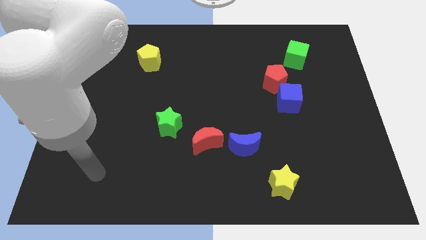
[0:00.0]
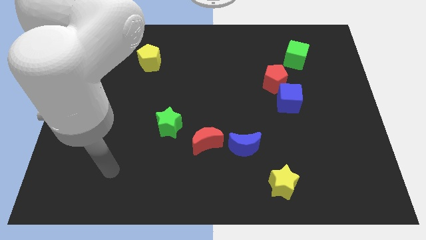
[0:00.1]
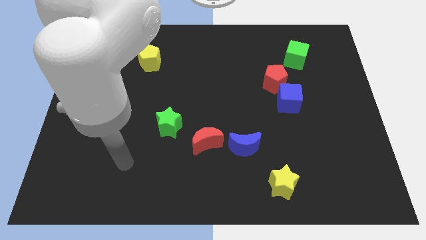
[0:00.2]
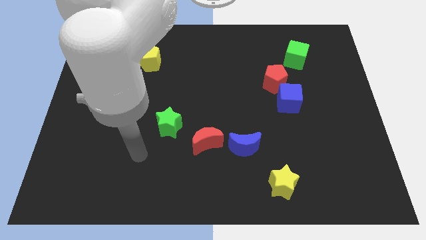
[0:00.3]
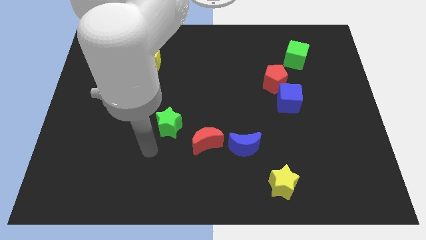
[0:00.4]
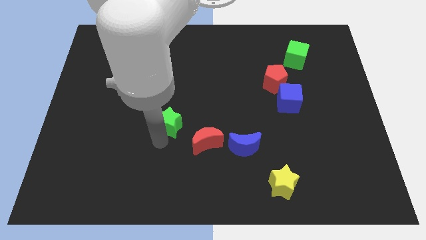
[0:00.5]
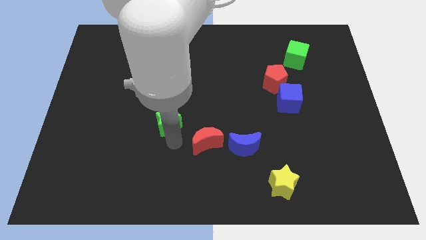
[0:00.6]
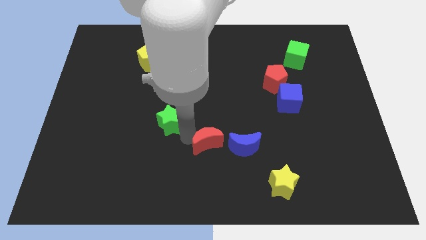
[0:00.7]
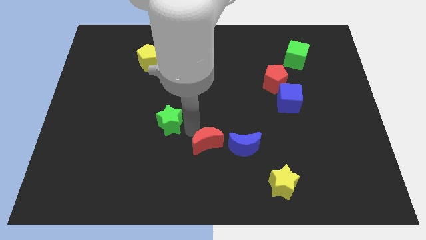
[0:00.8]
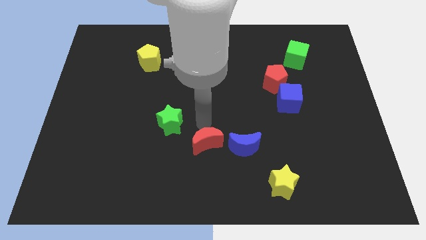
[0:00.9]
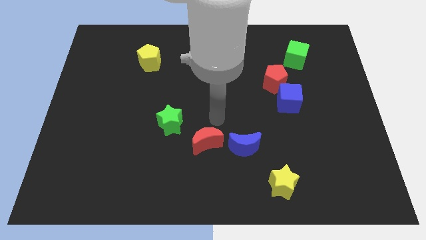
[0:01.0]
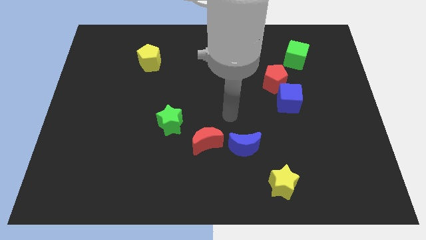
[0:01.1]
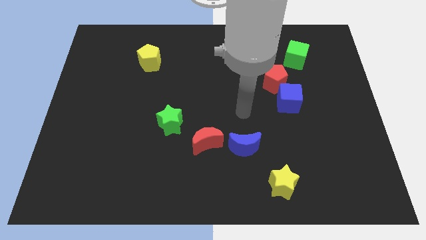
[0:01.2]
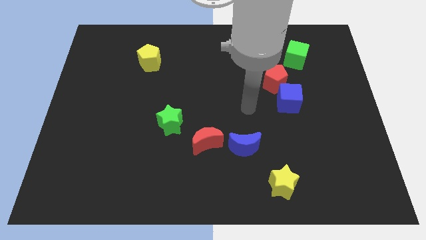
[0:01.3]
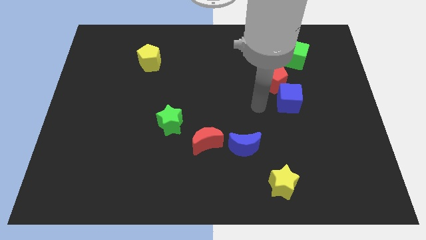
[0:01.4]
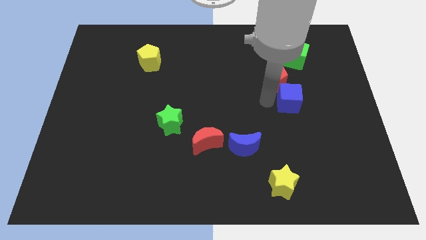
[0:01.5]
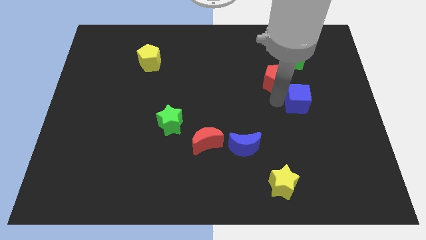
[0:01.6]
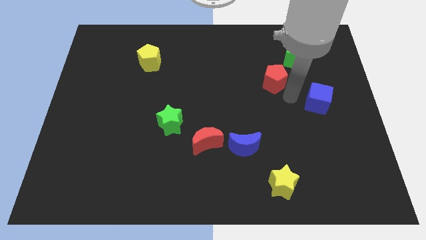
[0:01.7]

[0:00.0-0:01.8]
separate the red pentagon from the blue cube

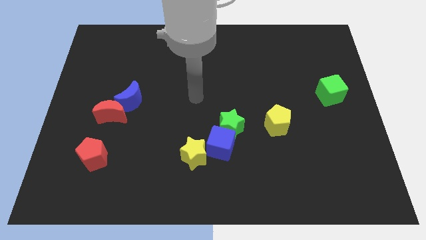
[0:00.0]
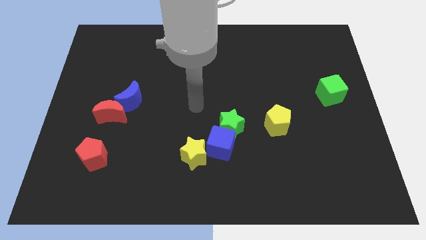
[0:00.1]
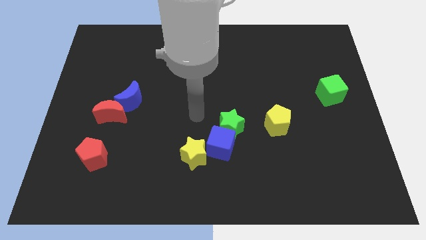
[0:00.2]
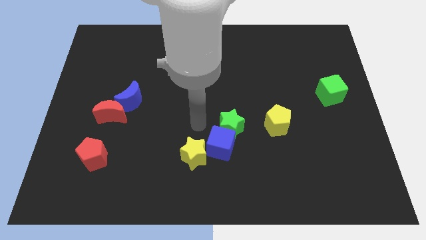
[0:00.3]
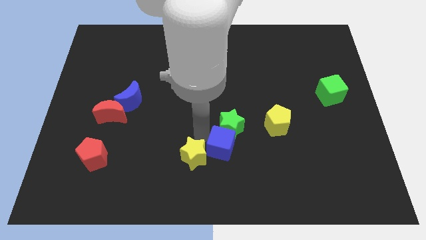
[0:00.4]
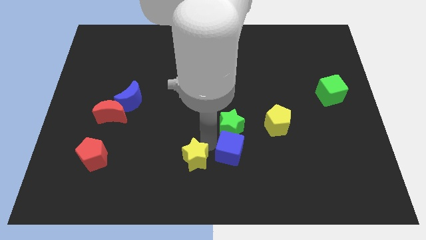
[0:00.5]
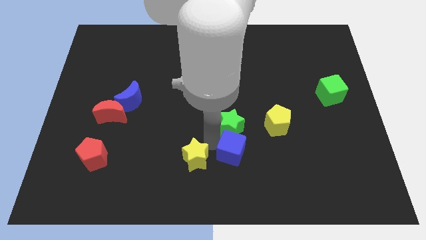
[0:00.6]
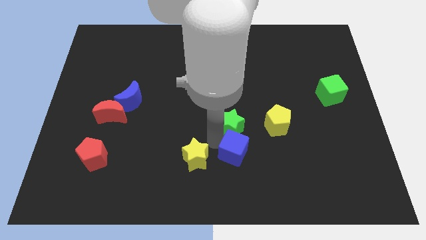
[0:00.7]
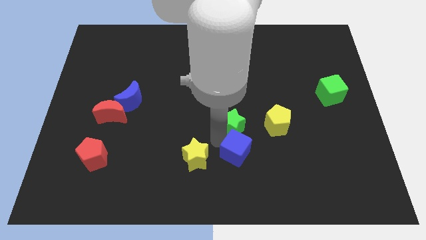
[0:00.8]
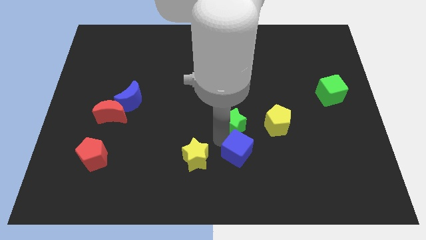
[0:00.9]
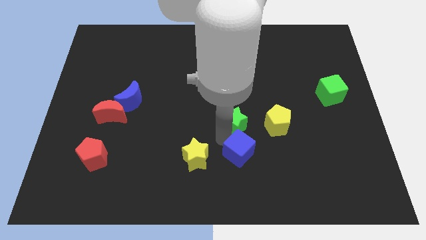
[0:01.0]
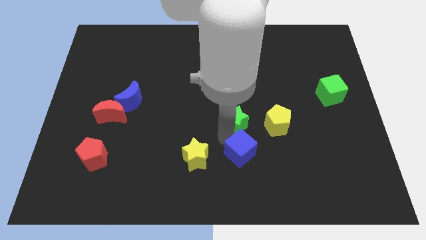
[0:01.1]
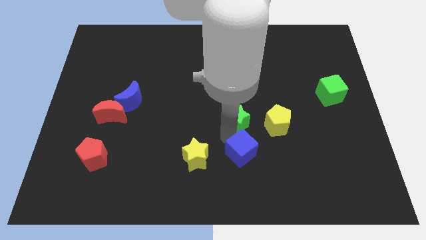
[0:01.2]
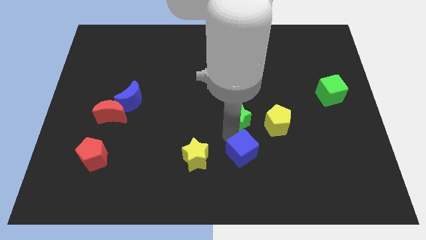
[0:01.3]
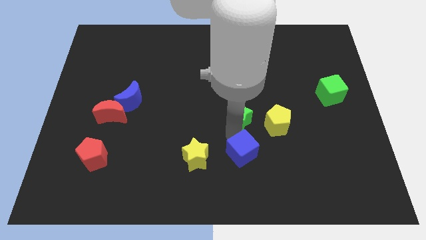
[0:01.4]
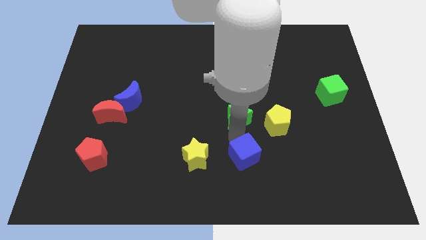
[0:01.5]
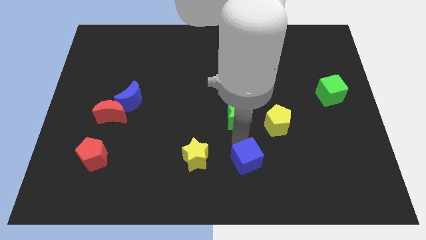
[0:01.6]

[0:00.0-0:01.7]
separate the green star from the blue cube

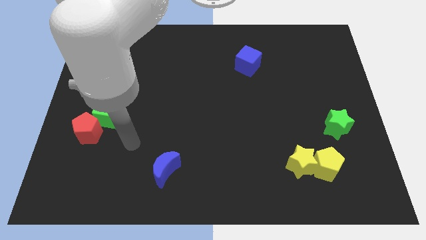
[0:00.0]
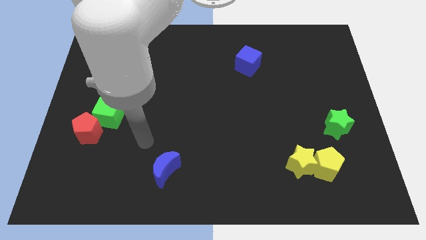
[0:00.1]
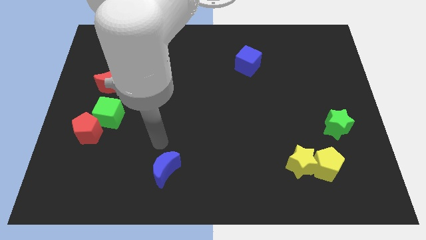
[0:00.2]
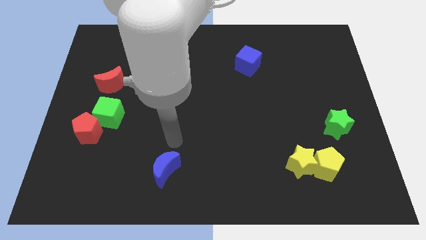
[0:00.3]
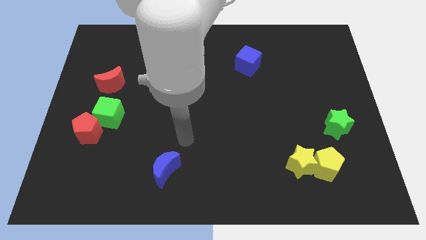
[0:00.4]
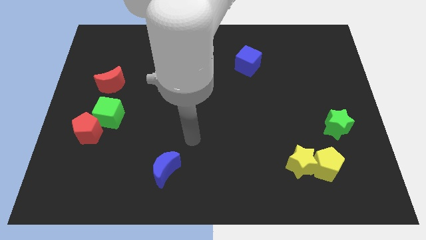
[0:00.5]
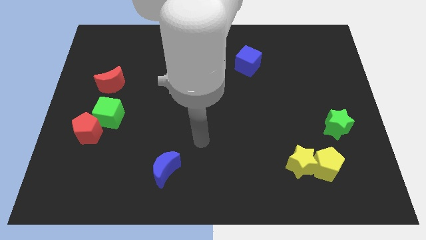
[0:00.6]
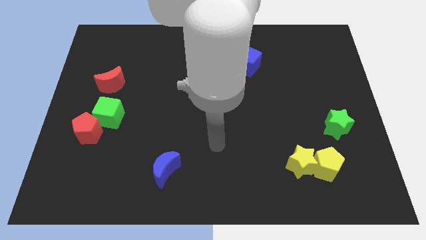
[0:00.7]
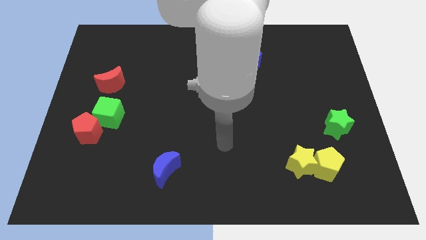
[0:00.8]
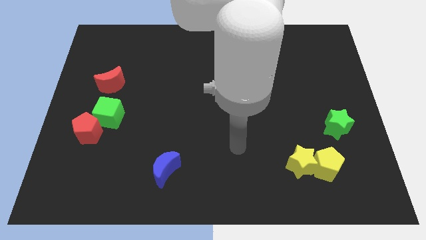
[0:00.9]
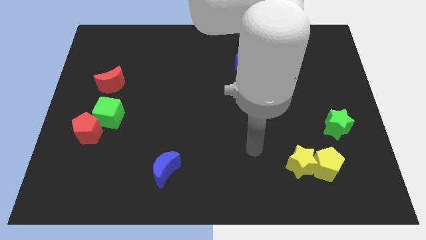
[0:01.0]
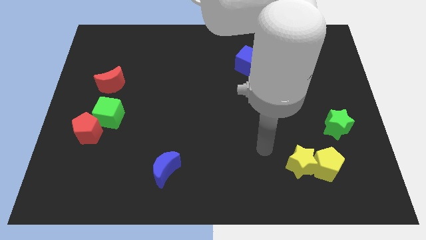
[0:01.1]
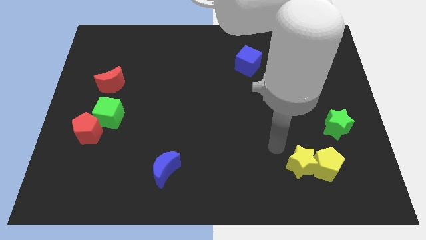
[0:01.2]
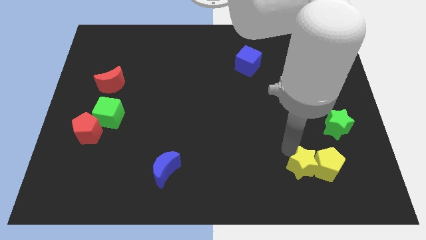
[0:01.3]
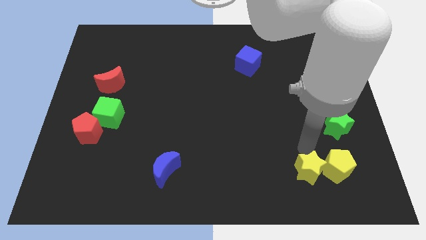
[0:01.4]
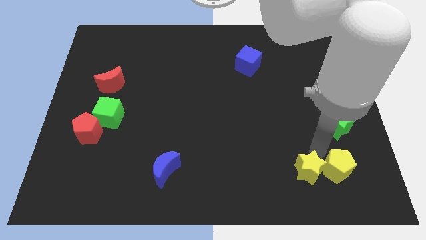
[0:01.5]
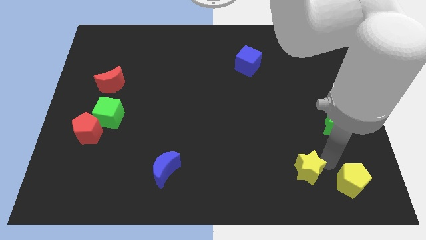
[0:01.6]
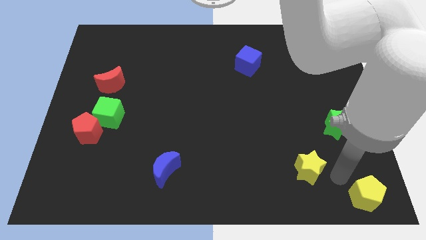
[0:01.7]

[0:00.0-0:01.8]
pull the yellow star apart from the yellow pentagon

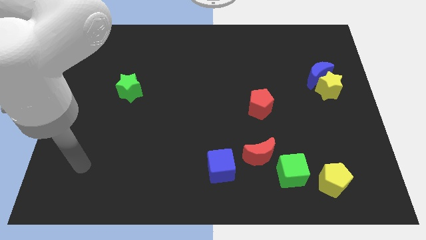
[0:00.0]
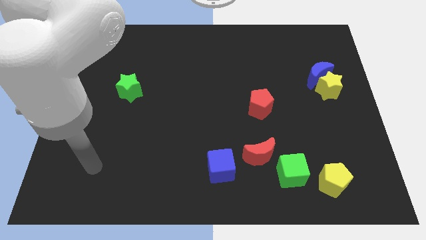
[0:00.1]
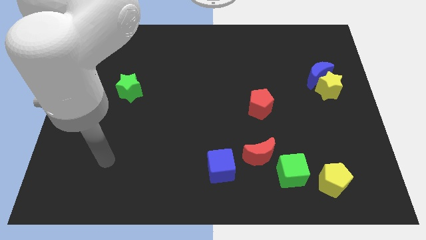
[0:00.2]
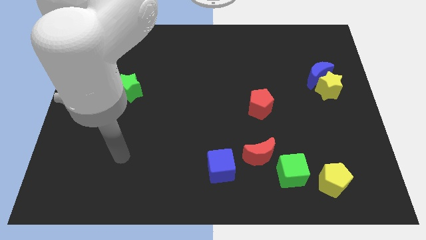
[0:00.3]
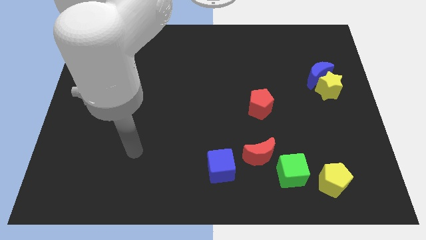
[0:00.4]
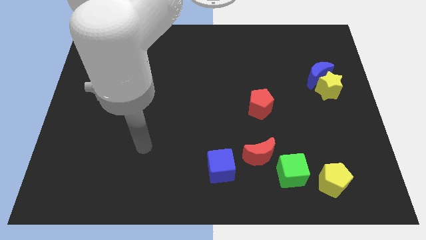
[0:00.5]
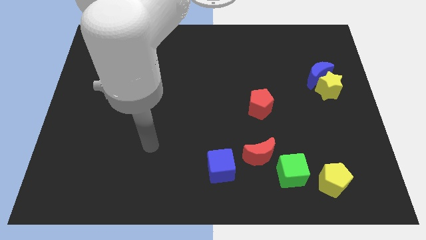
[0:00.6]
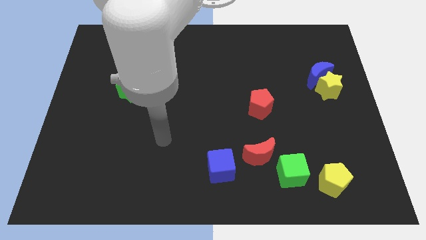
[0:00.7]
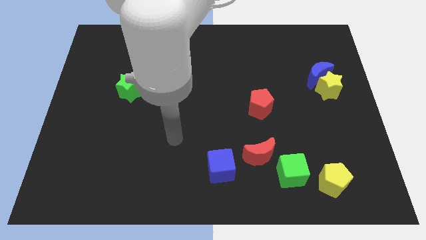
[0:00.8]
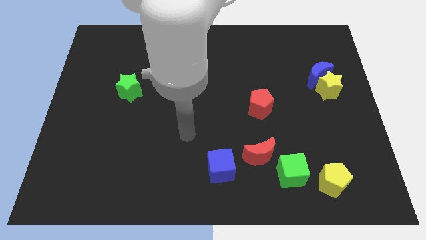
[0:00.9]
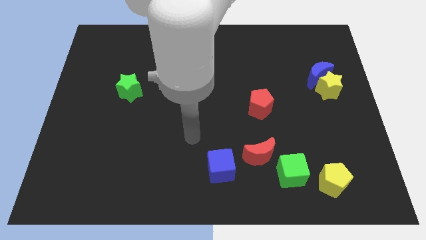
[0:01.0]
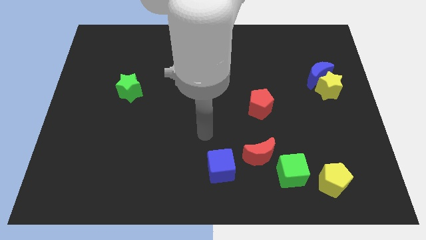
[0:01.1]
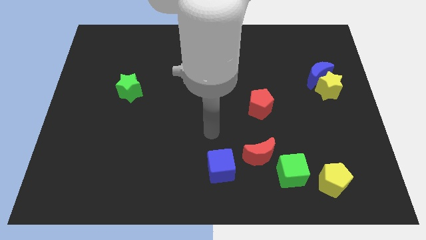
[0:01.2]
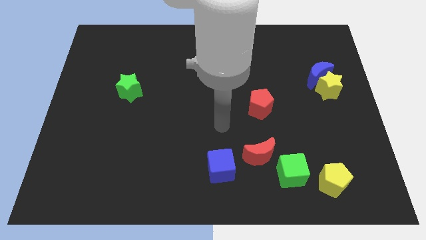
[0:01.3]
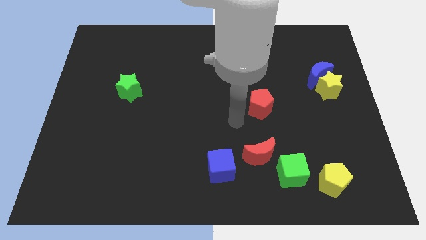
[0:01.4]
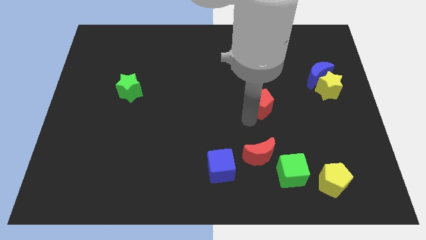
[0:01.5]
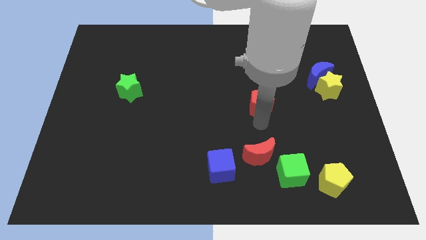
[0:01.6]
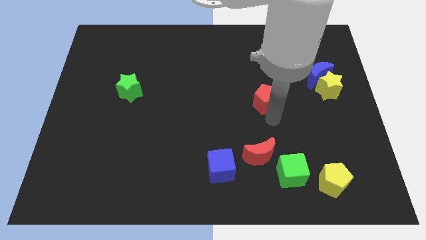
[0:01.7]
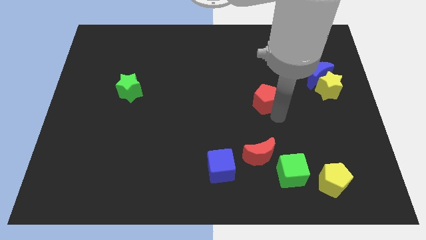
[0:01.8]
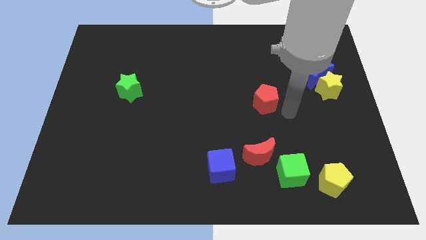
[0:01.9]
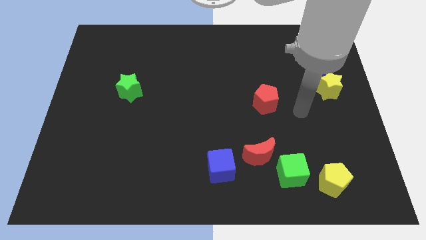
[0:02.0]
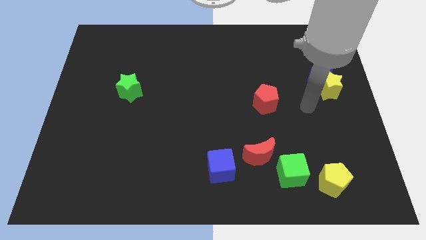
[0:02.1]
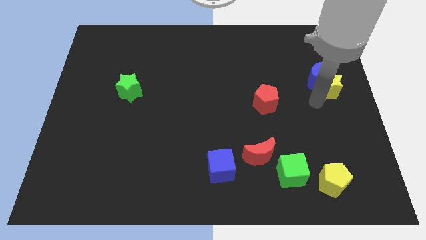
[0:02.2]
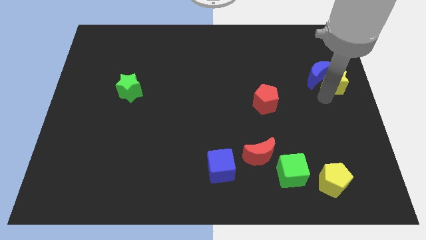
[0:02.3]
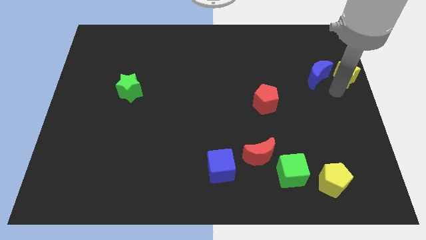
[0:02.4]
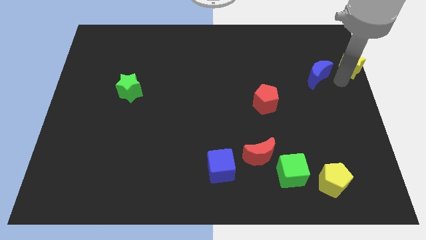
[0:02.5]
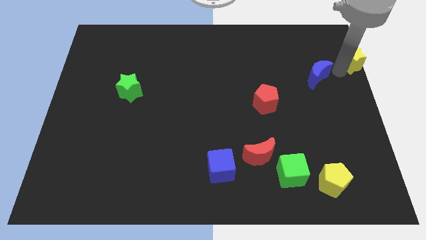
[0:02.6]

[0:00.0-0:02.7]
separate the blue moon from the yellow star

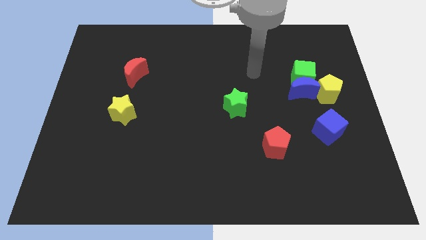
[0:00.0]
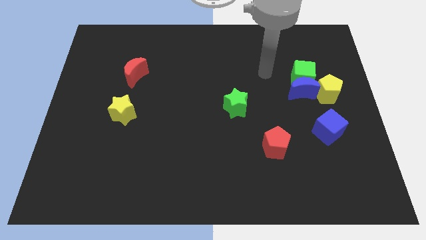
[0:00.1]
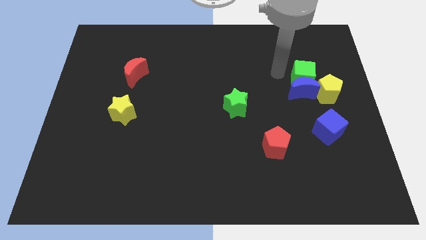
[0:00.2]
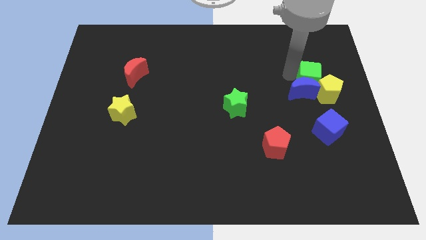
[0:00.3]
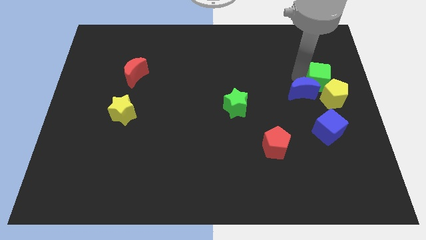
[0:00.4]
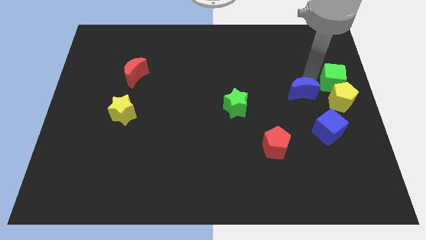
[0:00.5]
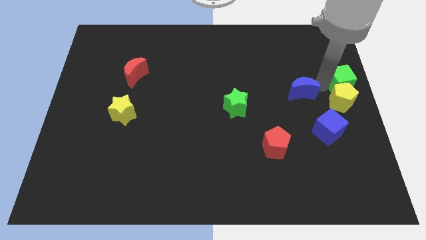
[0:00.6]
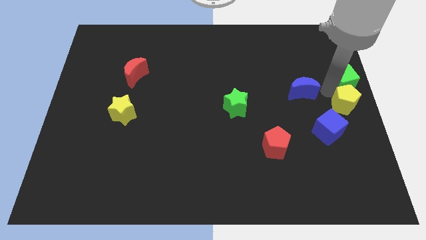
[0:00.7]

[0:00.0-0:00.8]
move the blue moon away from the green cube and yellow pentagon

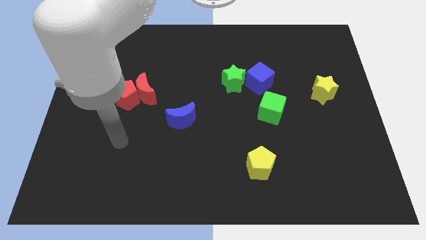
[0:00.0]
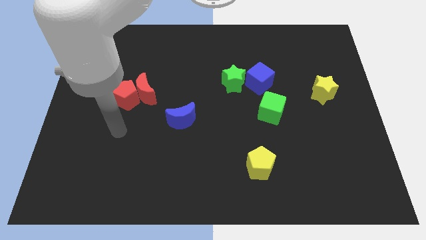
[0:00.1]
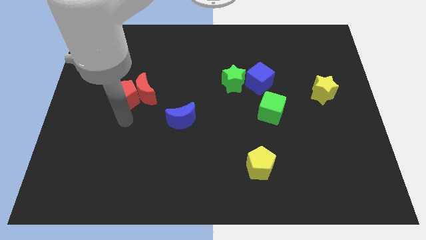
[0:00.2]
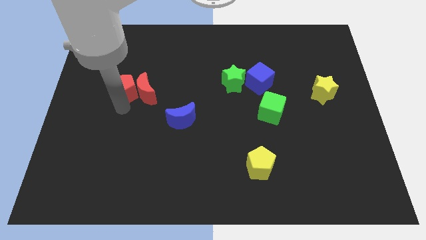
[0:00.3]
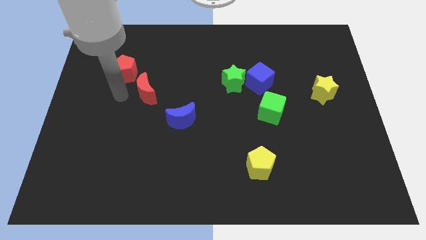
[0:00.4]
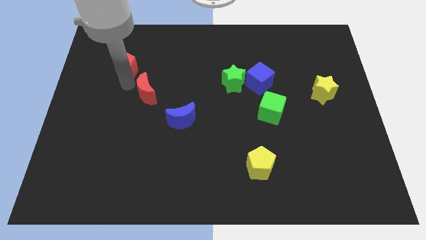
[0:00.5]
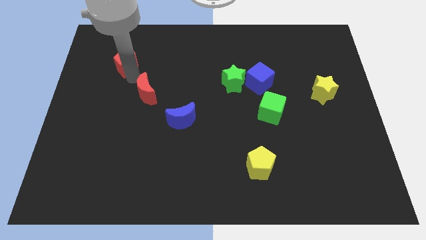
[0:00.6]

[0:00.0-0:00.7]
separate the red moon from the red pentagon
